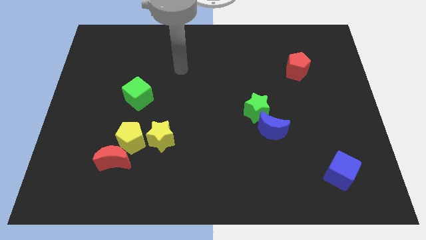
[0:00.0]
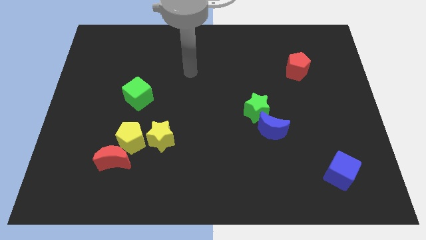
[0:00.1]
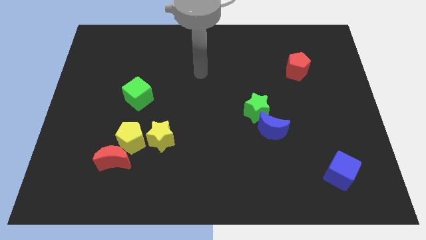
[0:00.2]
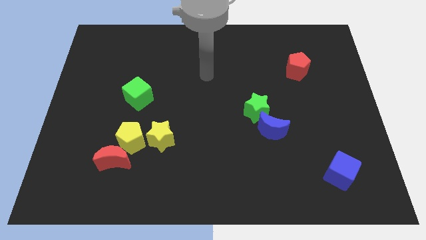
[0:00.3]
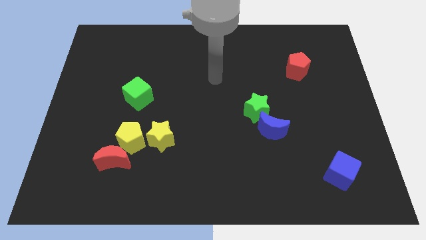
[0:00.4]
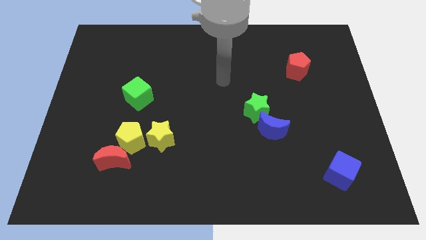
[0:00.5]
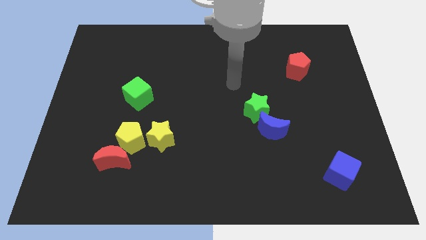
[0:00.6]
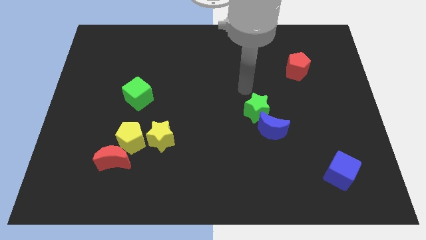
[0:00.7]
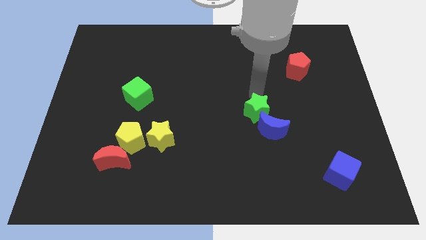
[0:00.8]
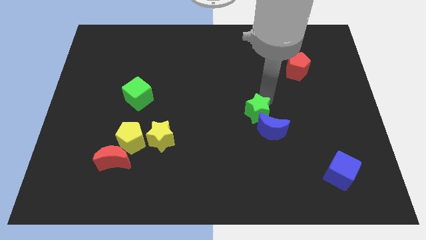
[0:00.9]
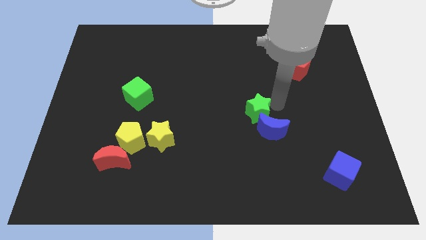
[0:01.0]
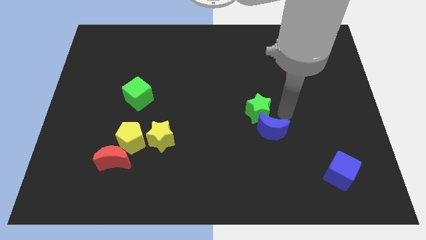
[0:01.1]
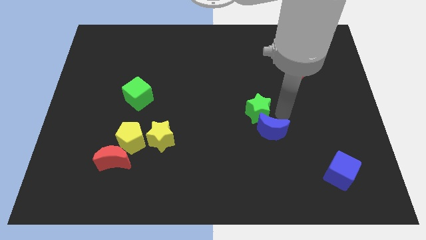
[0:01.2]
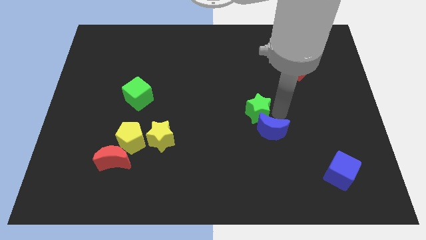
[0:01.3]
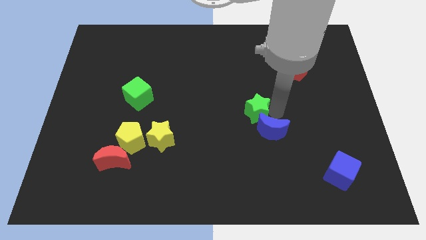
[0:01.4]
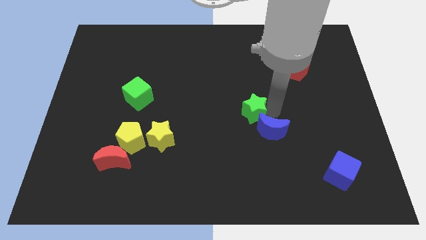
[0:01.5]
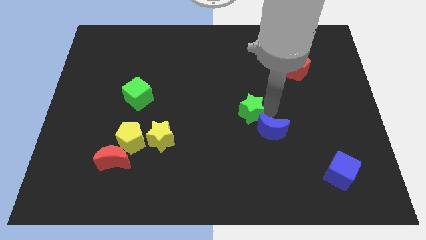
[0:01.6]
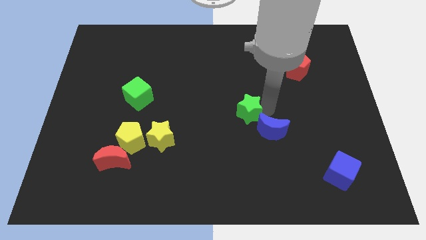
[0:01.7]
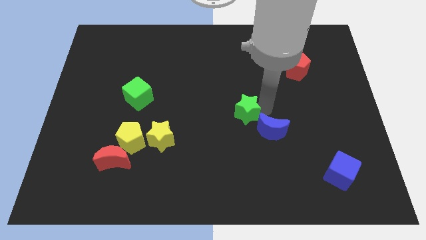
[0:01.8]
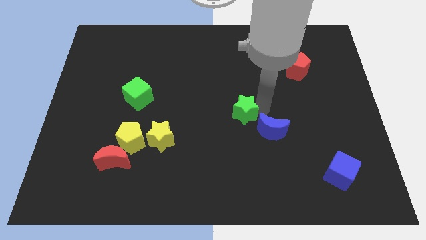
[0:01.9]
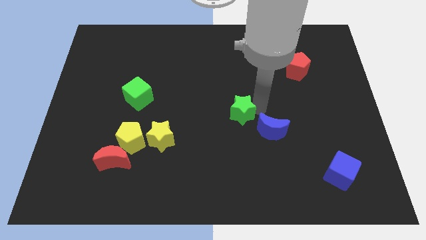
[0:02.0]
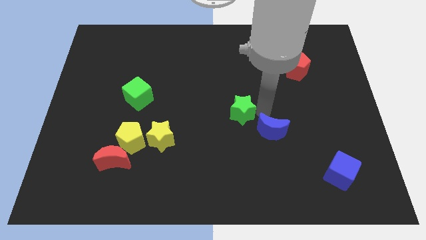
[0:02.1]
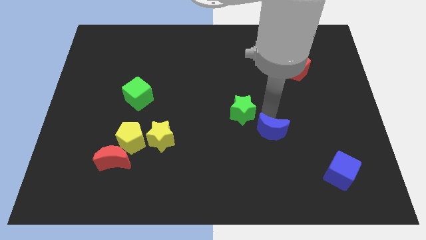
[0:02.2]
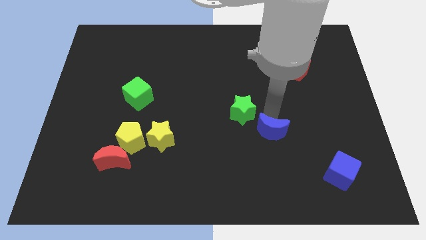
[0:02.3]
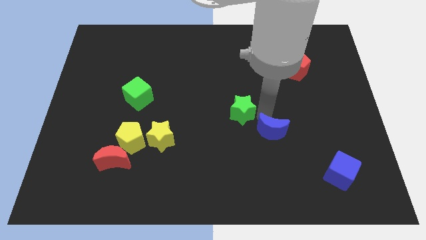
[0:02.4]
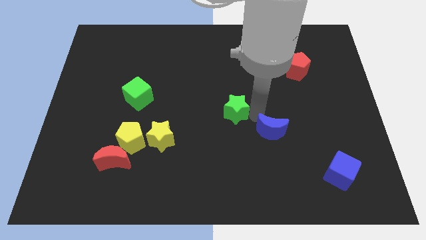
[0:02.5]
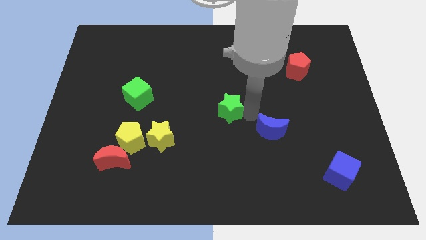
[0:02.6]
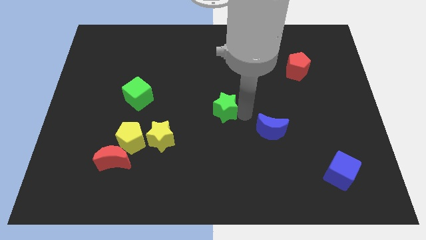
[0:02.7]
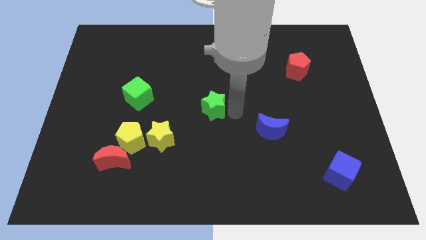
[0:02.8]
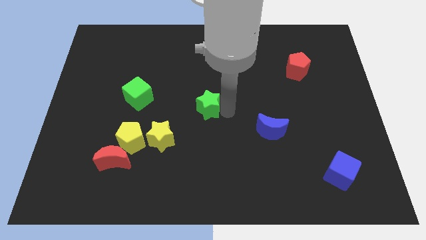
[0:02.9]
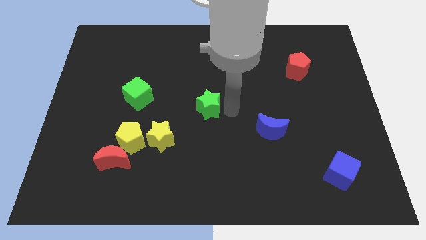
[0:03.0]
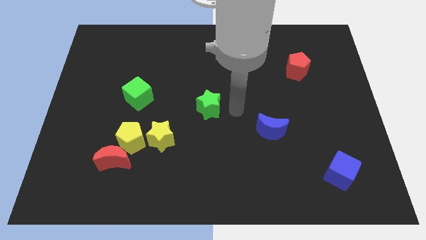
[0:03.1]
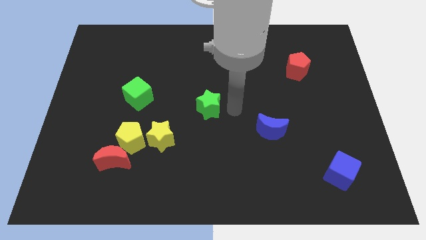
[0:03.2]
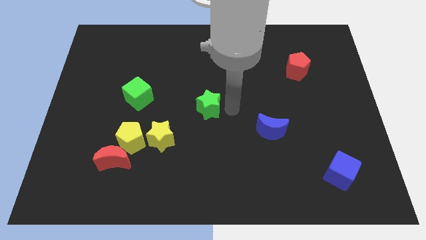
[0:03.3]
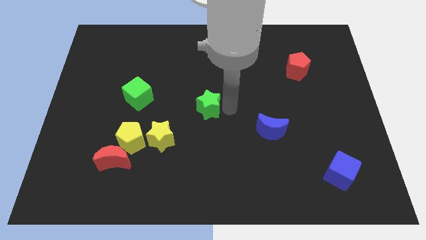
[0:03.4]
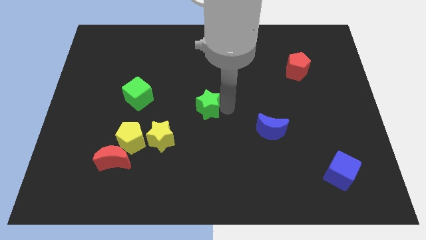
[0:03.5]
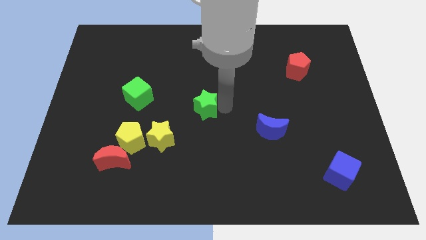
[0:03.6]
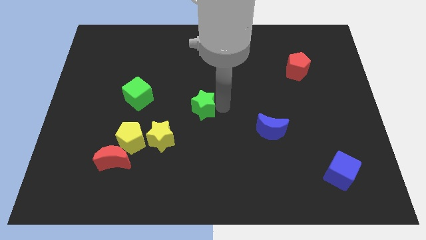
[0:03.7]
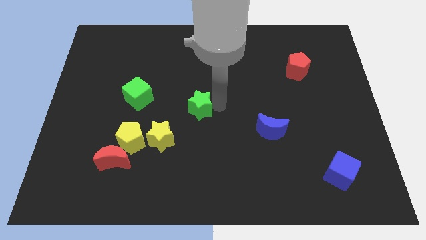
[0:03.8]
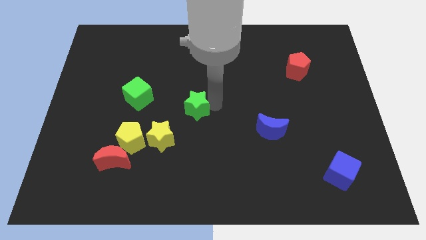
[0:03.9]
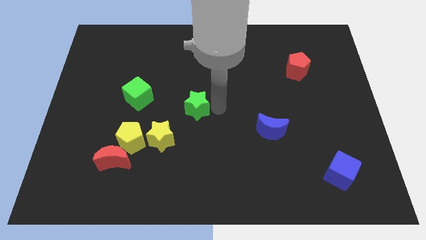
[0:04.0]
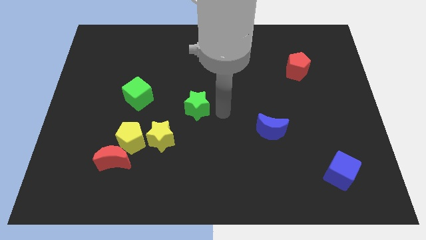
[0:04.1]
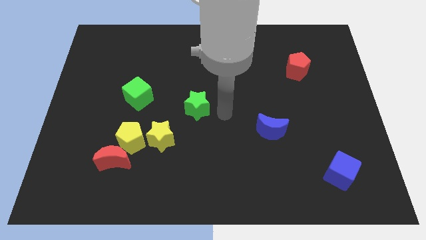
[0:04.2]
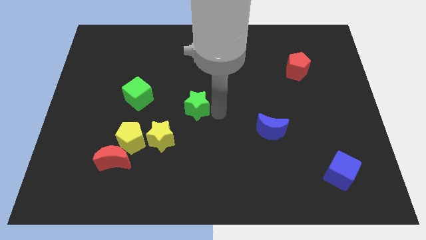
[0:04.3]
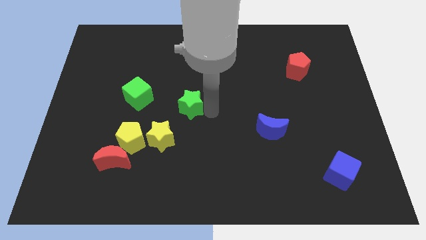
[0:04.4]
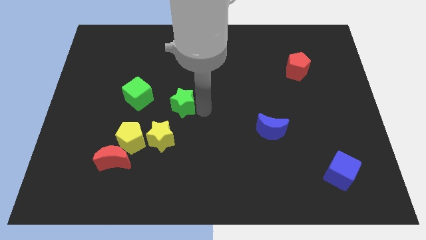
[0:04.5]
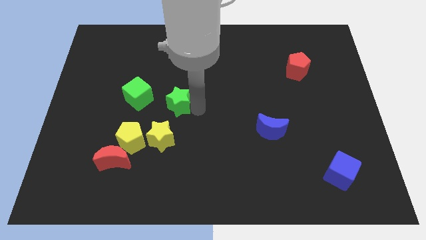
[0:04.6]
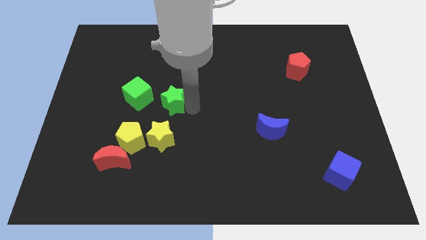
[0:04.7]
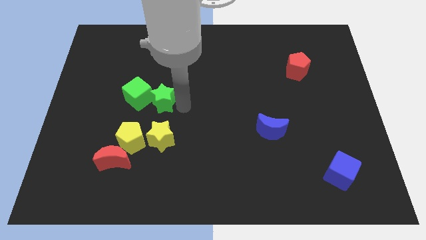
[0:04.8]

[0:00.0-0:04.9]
push the green star next to the green cube

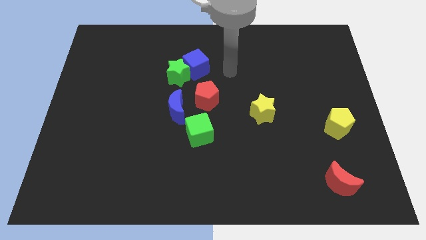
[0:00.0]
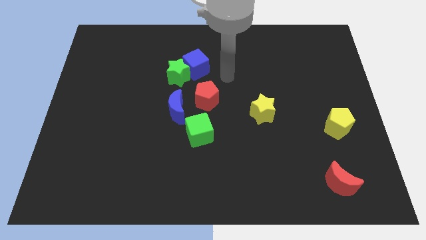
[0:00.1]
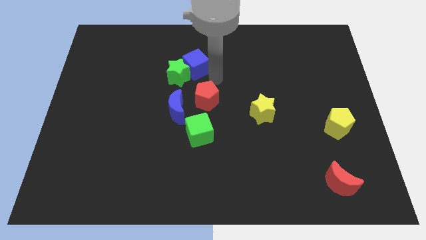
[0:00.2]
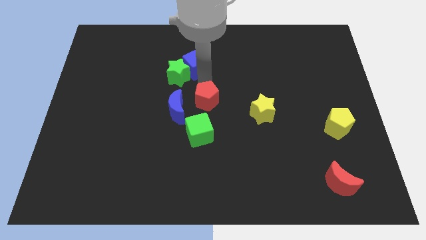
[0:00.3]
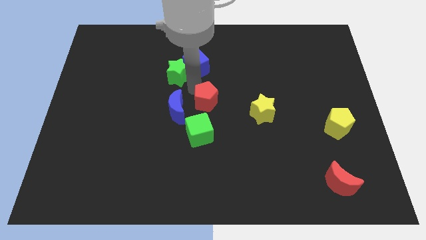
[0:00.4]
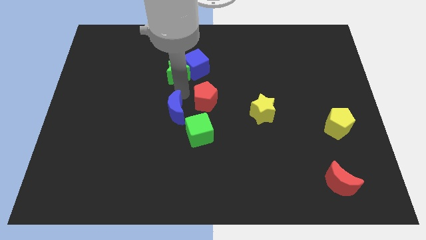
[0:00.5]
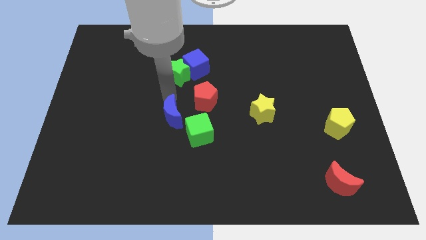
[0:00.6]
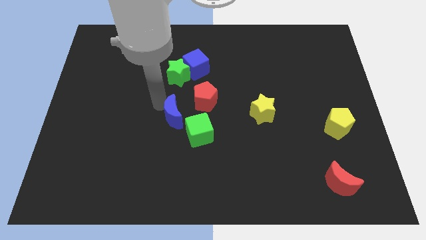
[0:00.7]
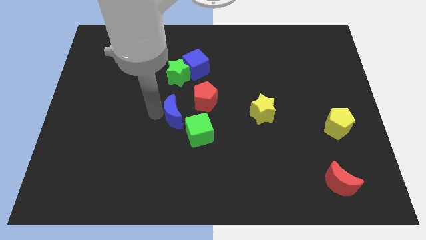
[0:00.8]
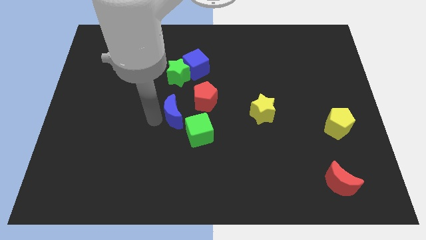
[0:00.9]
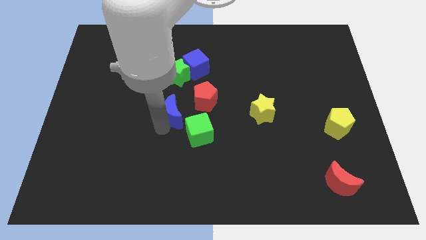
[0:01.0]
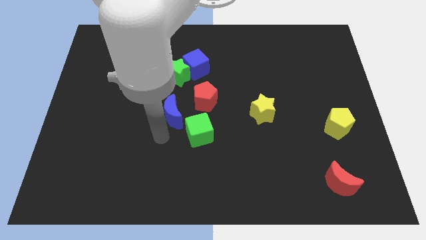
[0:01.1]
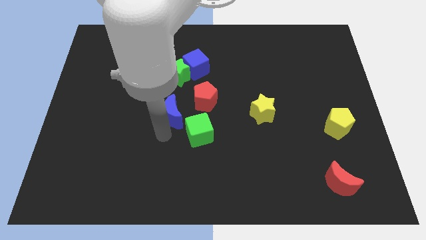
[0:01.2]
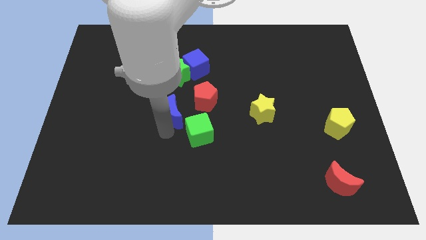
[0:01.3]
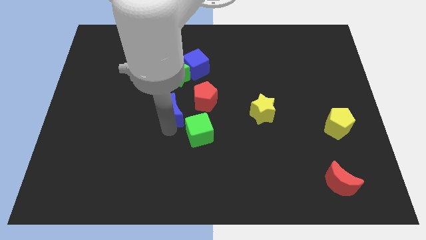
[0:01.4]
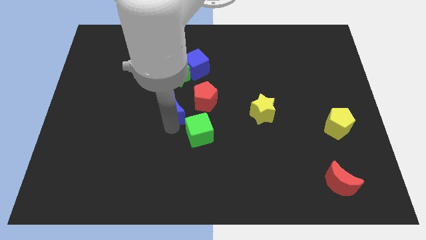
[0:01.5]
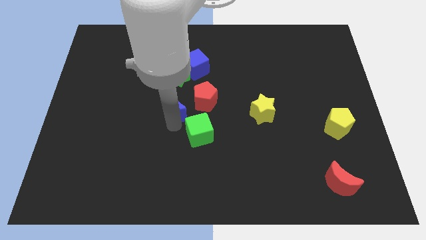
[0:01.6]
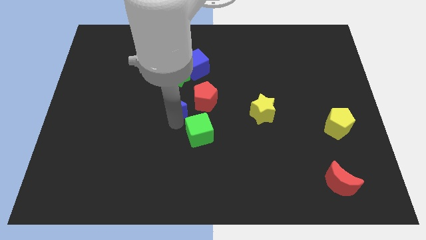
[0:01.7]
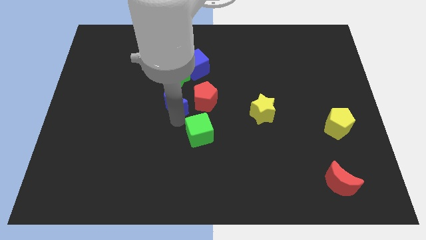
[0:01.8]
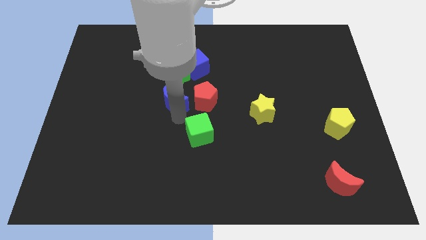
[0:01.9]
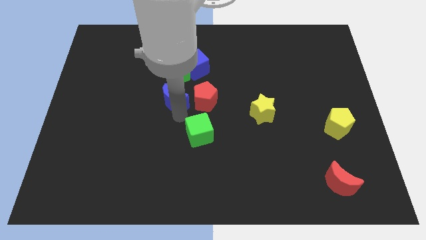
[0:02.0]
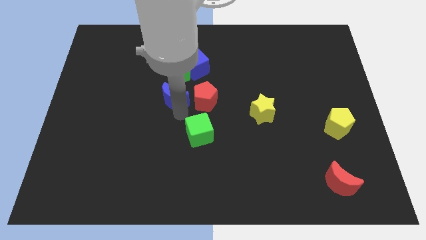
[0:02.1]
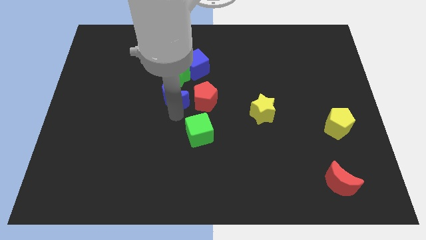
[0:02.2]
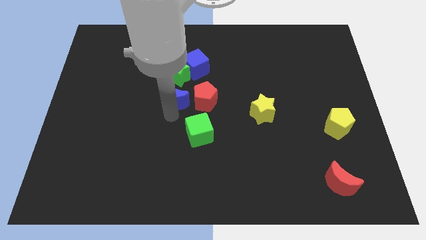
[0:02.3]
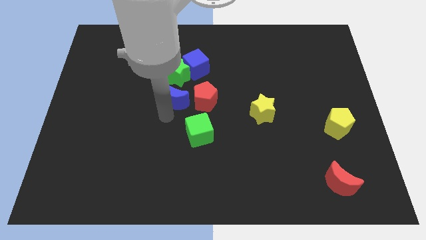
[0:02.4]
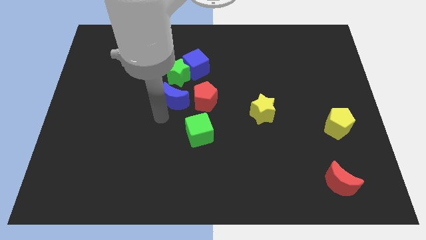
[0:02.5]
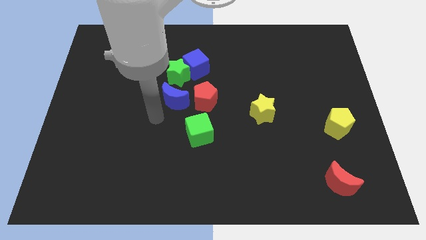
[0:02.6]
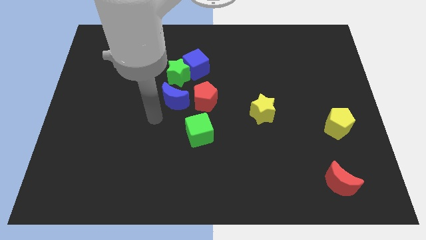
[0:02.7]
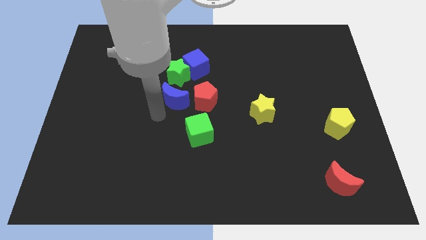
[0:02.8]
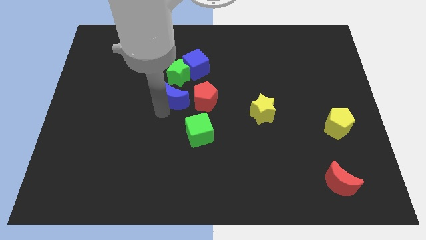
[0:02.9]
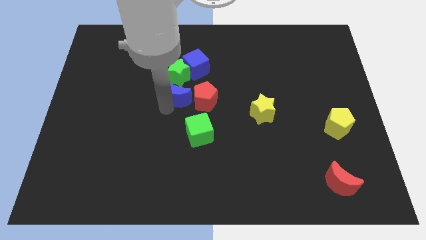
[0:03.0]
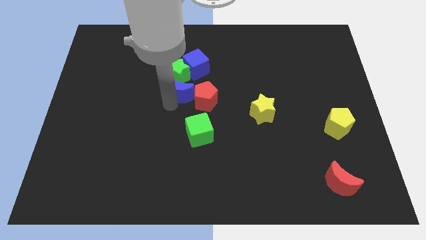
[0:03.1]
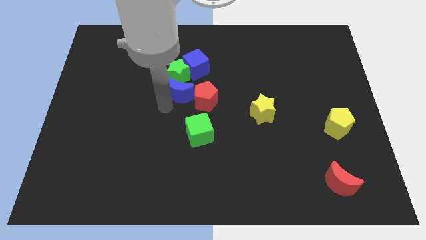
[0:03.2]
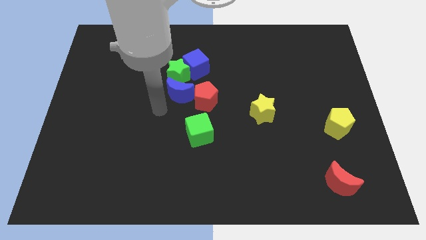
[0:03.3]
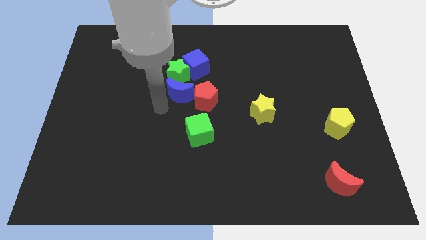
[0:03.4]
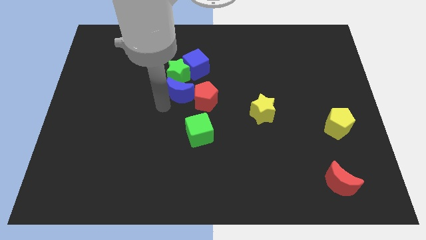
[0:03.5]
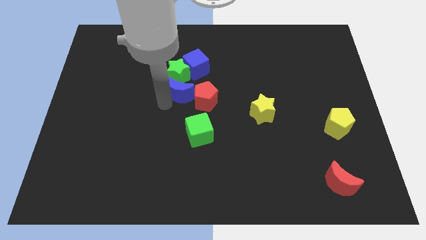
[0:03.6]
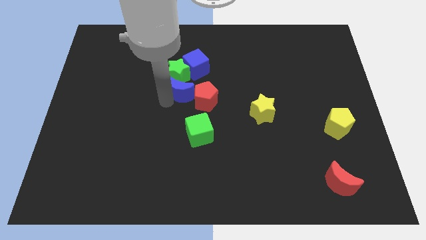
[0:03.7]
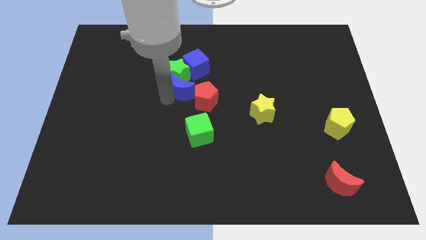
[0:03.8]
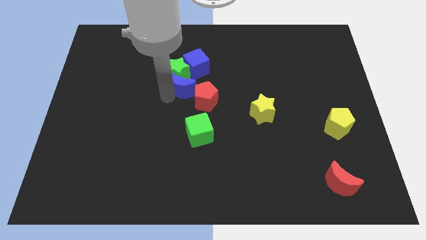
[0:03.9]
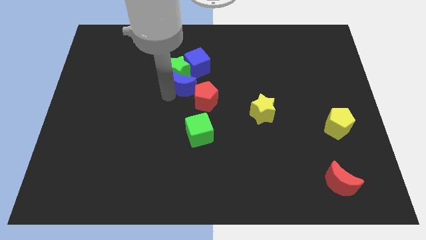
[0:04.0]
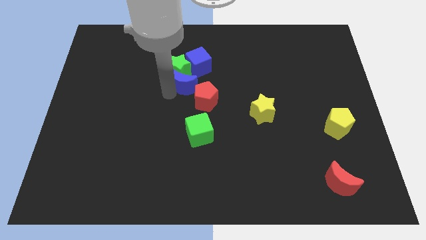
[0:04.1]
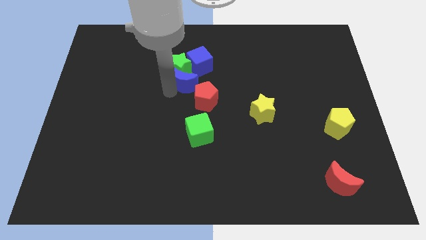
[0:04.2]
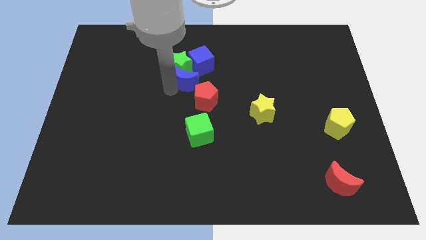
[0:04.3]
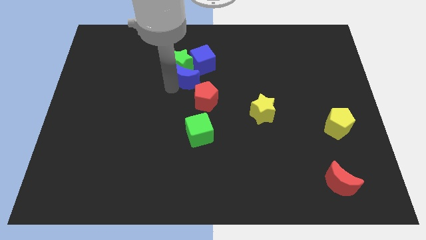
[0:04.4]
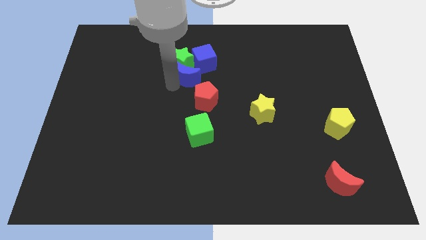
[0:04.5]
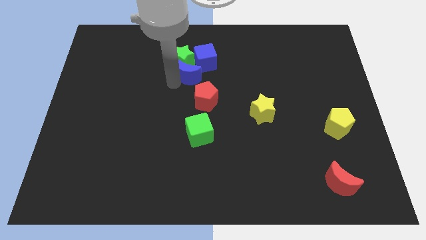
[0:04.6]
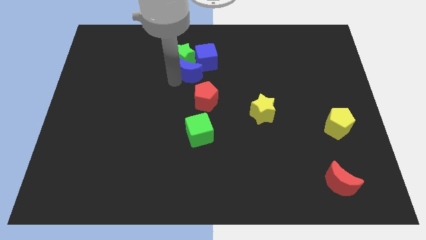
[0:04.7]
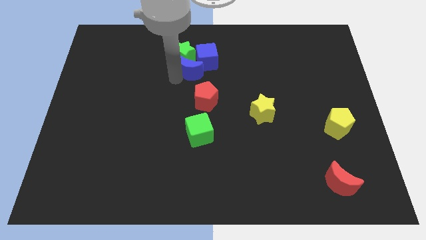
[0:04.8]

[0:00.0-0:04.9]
push the blue moon next to the blue cube
